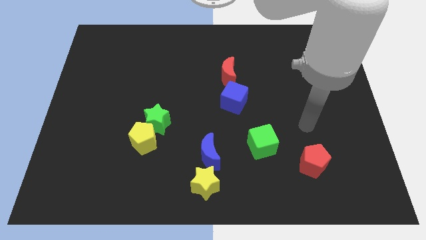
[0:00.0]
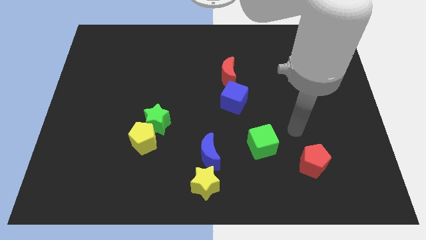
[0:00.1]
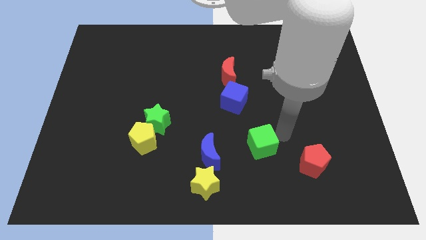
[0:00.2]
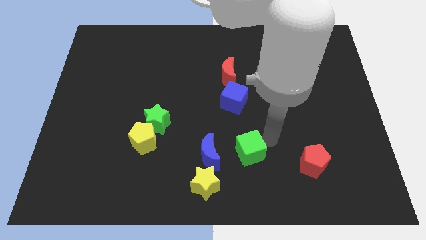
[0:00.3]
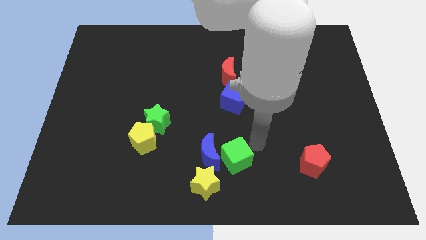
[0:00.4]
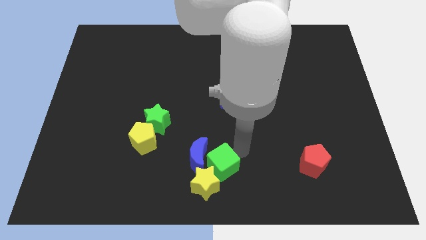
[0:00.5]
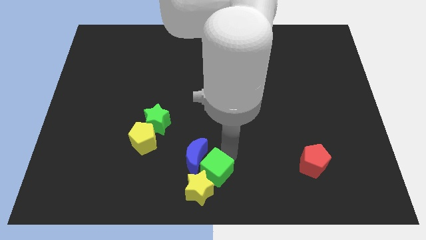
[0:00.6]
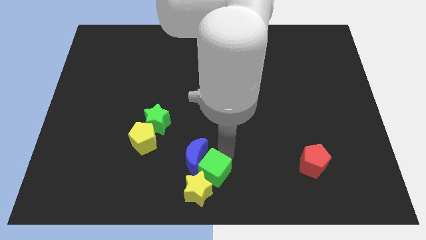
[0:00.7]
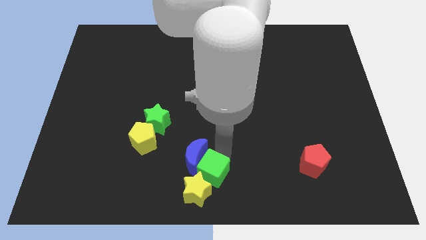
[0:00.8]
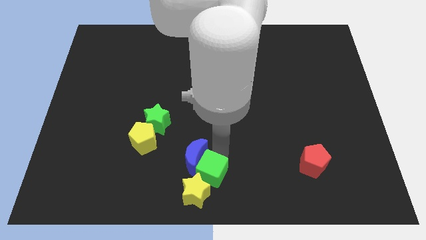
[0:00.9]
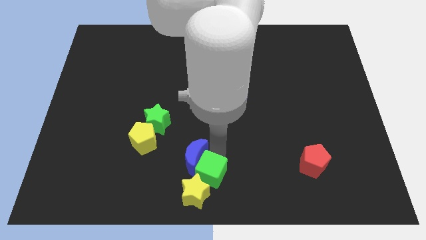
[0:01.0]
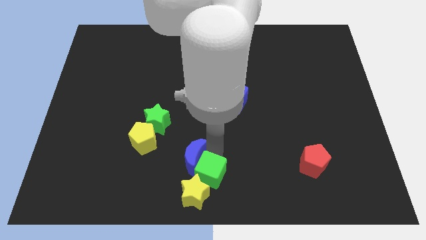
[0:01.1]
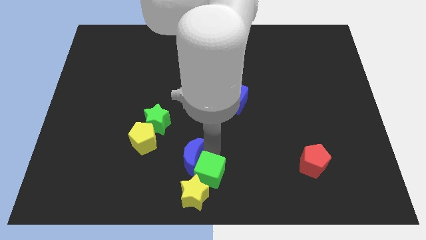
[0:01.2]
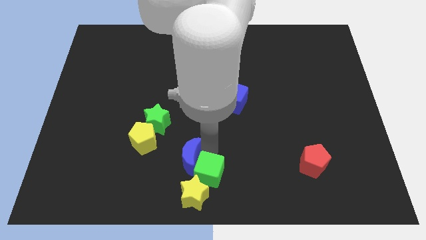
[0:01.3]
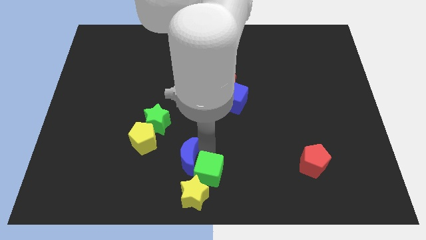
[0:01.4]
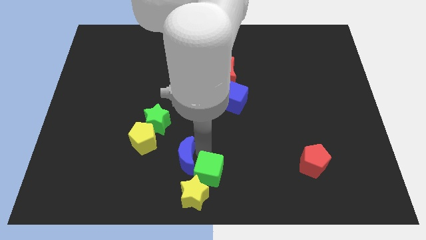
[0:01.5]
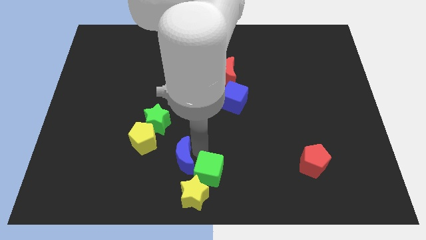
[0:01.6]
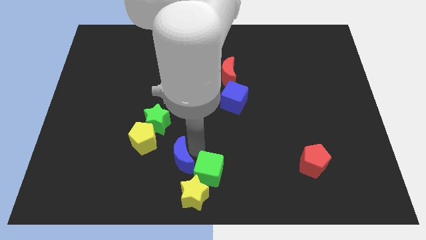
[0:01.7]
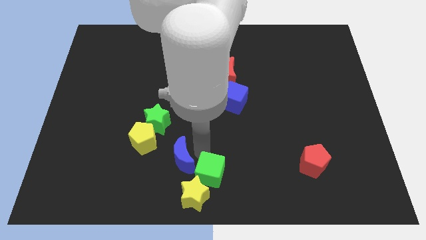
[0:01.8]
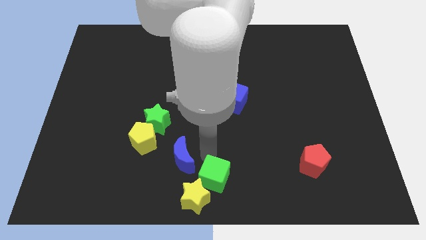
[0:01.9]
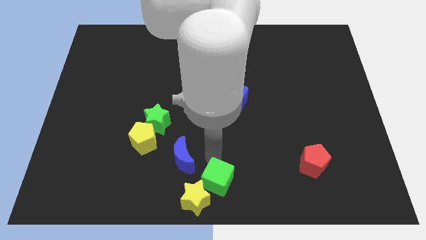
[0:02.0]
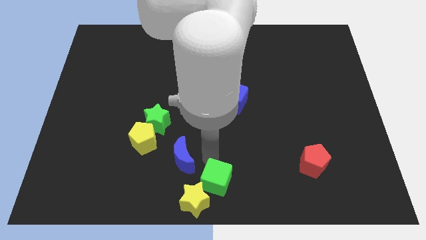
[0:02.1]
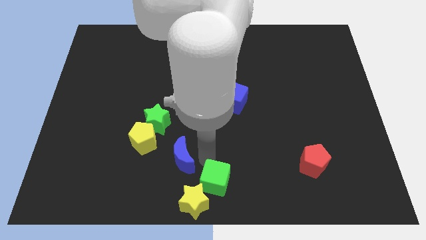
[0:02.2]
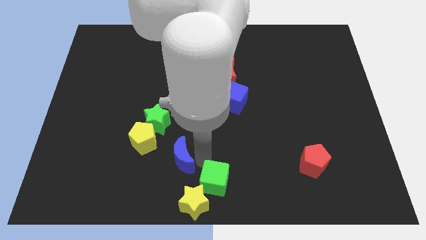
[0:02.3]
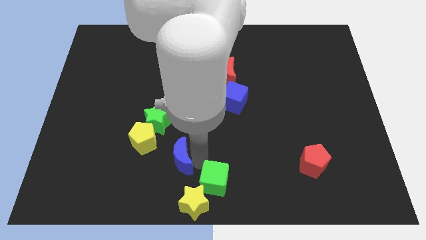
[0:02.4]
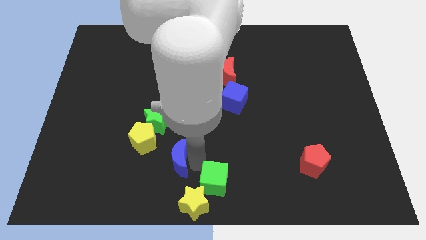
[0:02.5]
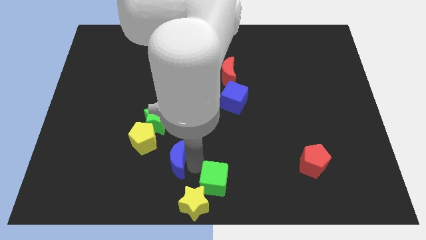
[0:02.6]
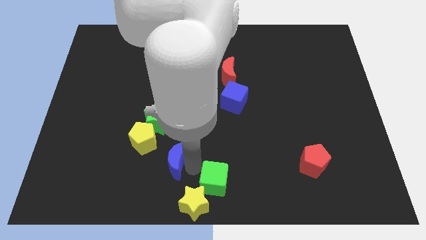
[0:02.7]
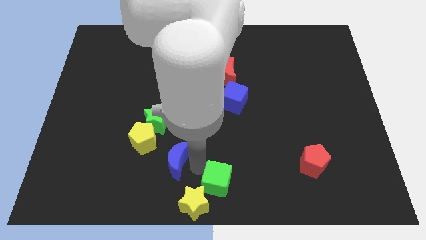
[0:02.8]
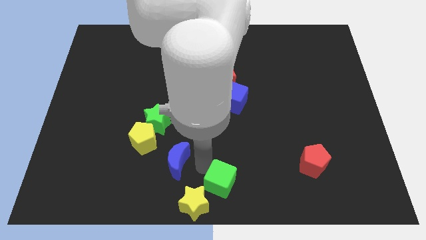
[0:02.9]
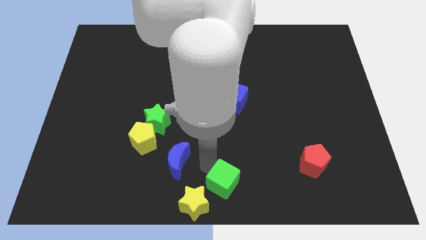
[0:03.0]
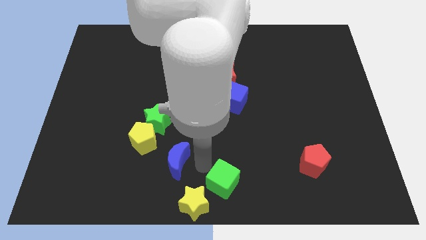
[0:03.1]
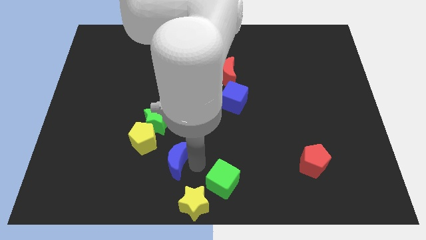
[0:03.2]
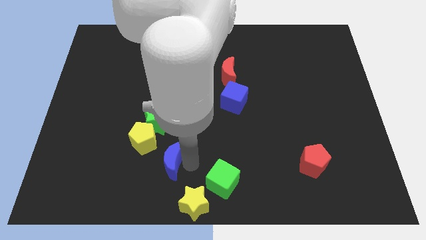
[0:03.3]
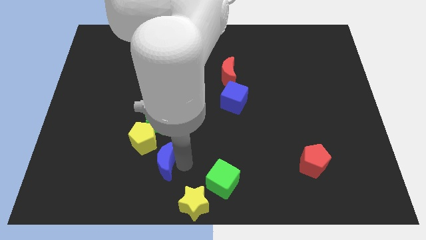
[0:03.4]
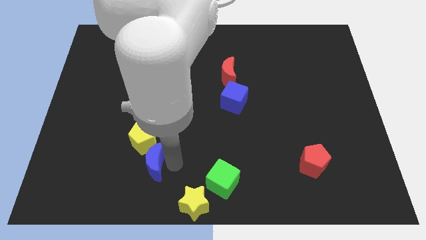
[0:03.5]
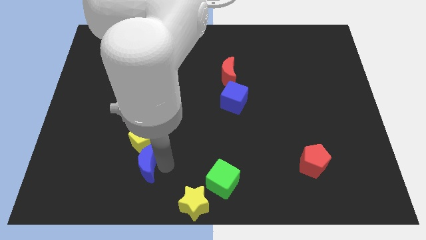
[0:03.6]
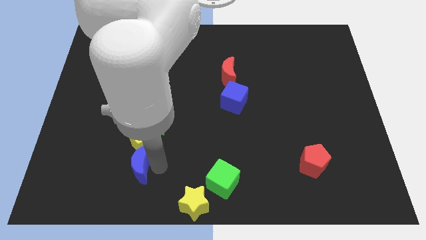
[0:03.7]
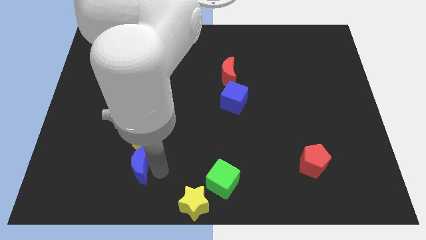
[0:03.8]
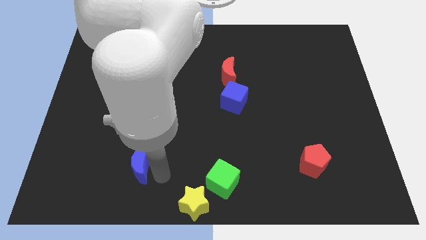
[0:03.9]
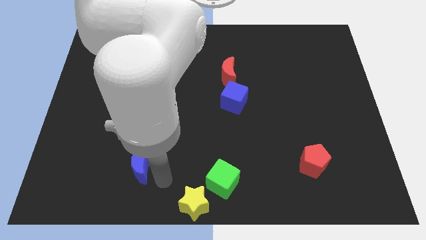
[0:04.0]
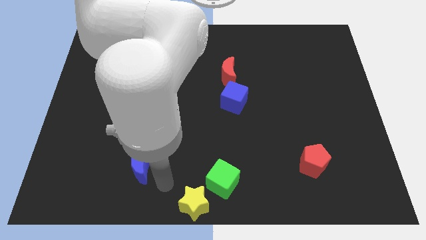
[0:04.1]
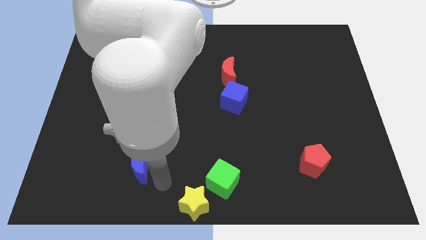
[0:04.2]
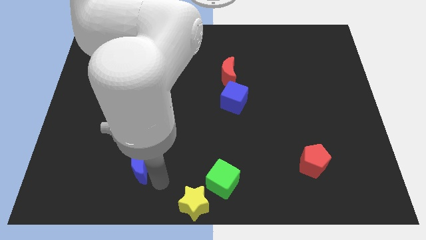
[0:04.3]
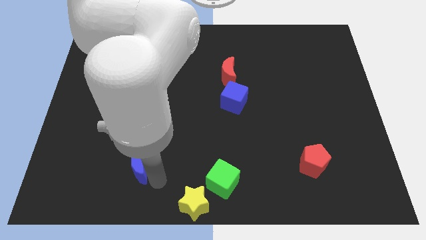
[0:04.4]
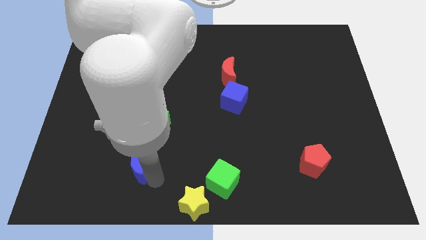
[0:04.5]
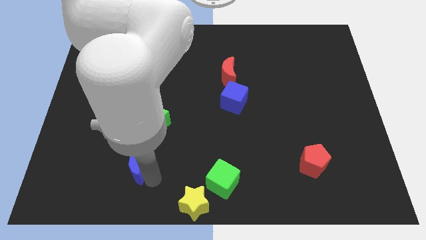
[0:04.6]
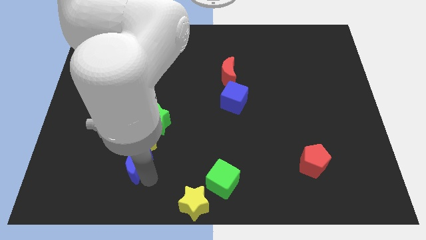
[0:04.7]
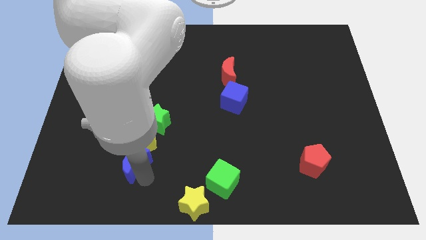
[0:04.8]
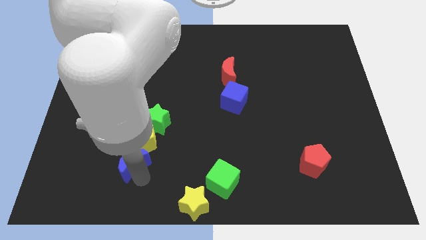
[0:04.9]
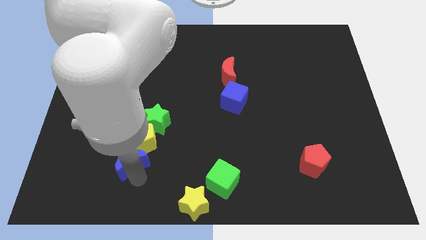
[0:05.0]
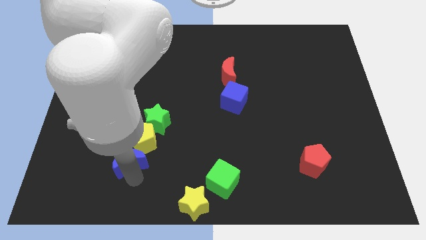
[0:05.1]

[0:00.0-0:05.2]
slide the blue moon to the bottom left side of the green star

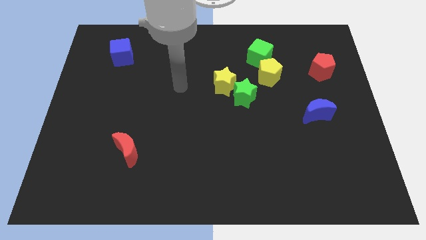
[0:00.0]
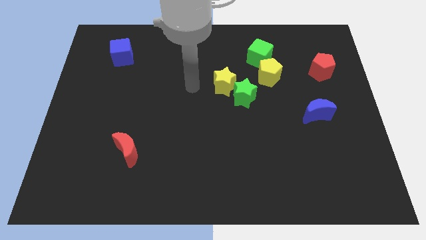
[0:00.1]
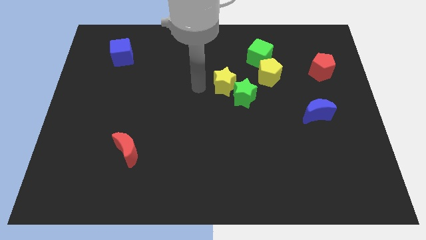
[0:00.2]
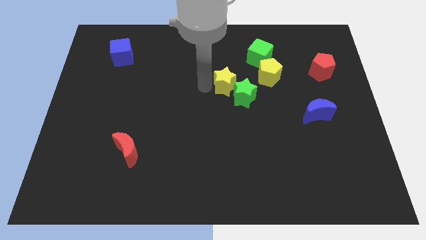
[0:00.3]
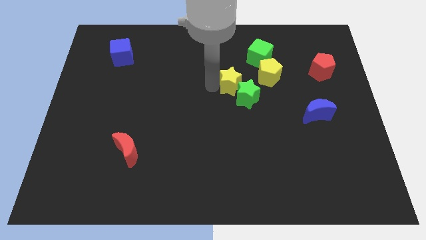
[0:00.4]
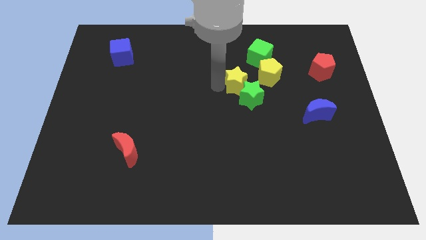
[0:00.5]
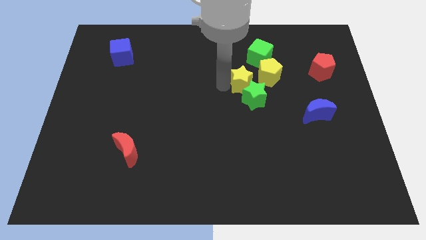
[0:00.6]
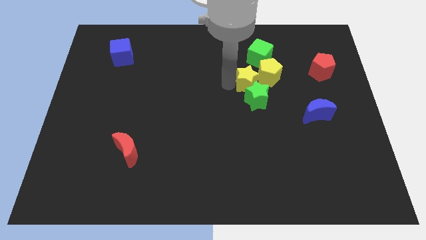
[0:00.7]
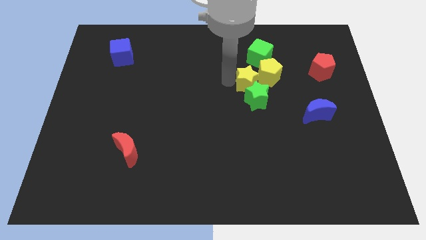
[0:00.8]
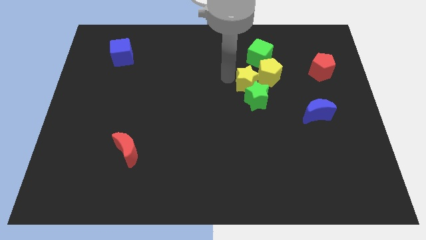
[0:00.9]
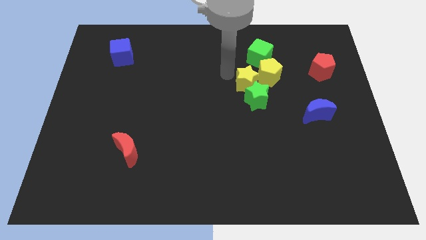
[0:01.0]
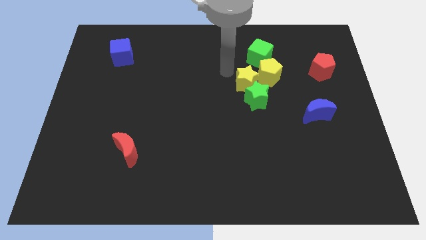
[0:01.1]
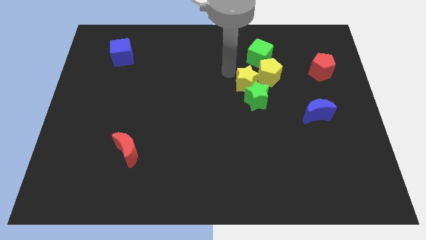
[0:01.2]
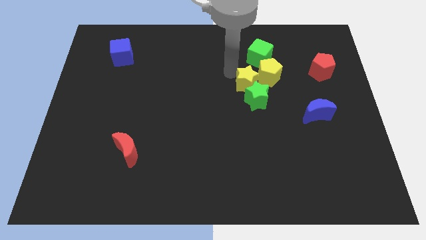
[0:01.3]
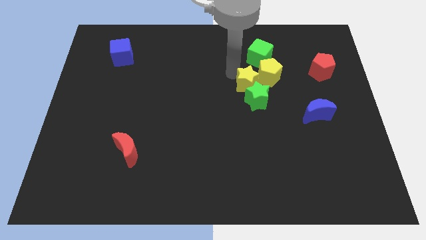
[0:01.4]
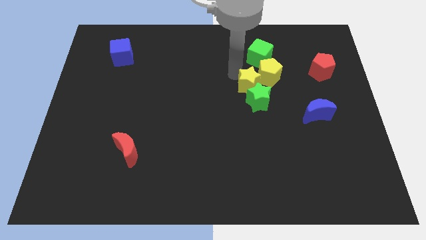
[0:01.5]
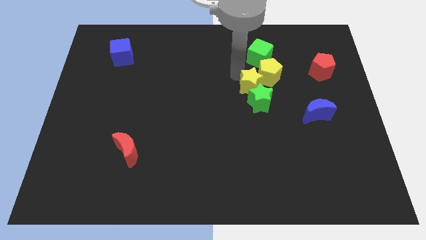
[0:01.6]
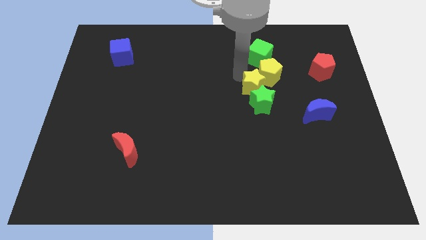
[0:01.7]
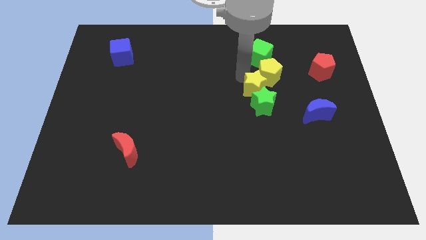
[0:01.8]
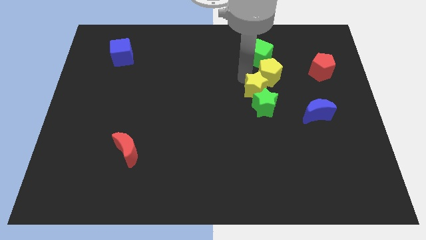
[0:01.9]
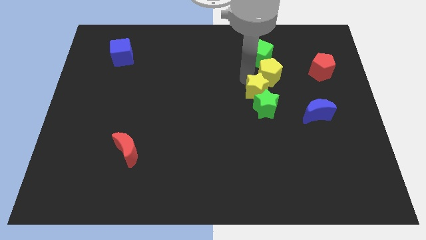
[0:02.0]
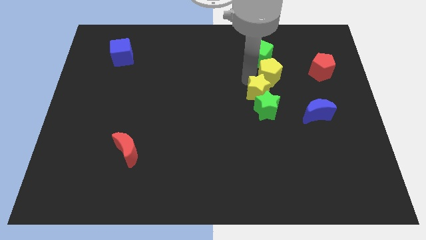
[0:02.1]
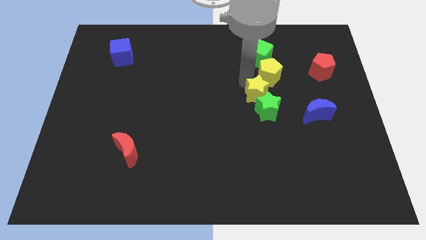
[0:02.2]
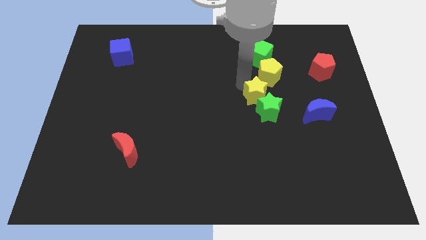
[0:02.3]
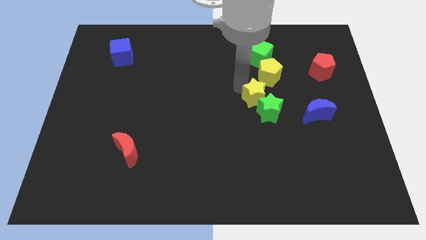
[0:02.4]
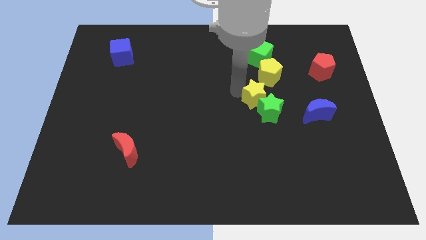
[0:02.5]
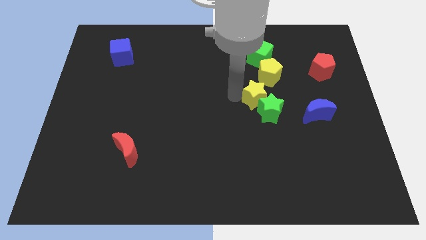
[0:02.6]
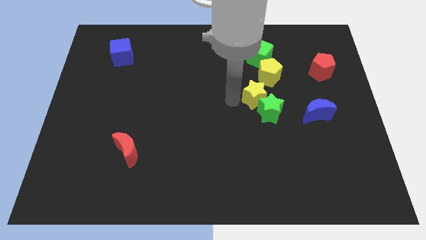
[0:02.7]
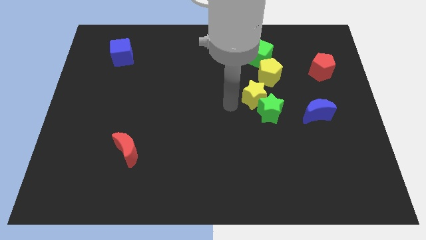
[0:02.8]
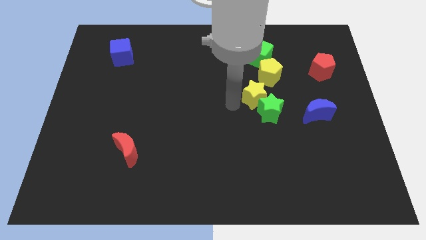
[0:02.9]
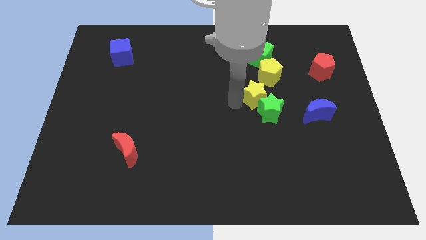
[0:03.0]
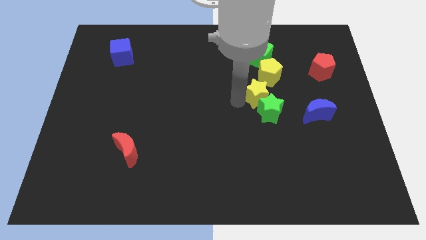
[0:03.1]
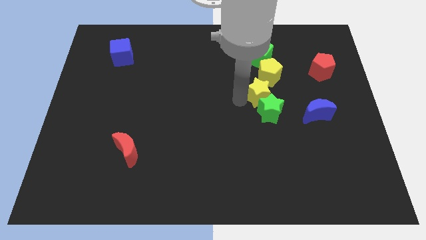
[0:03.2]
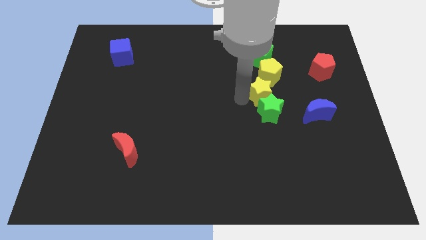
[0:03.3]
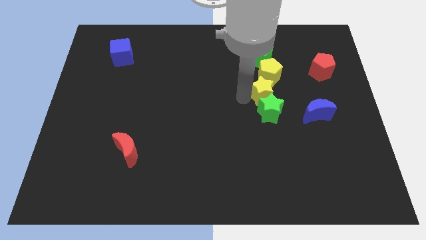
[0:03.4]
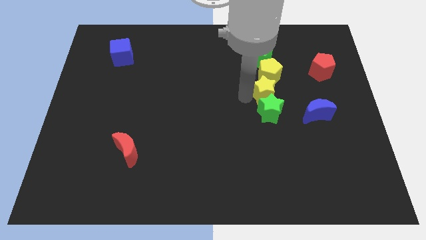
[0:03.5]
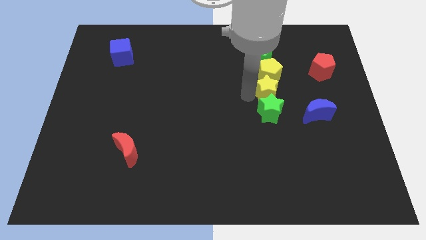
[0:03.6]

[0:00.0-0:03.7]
put the yellow star diagonally down and to the right of the yellow pentagon
